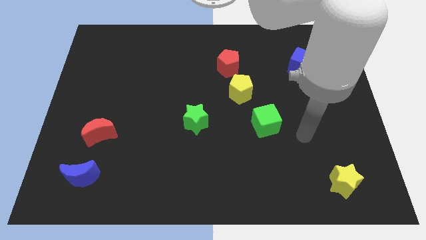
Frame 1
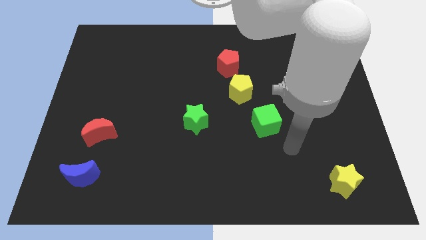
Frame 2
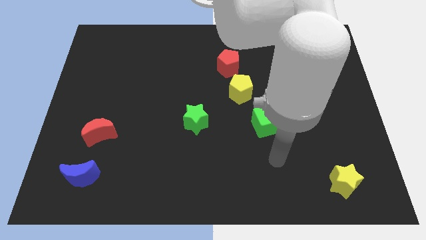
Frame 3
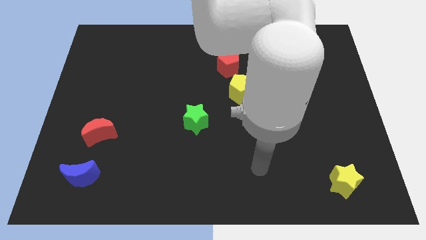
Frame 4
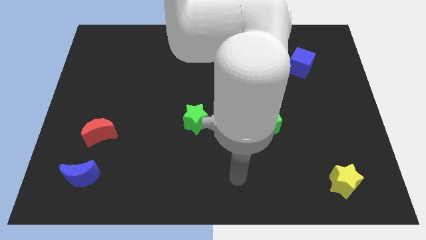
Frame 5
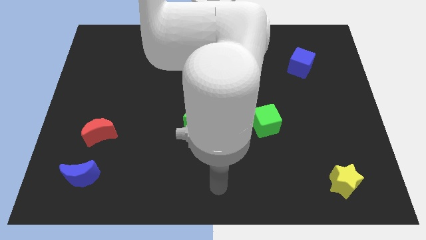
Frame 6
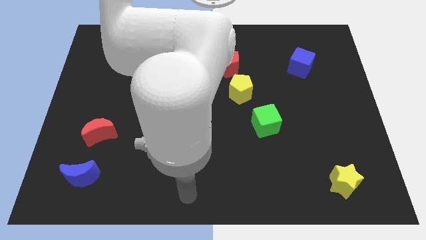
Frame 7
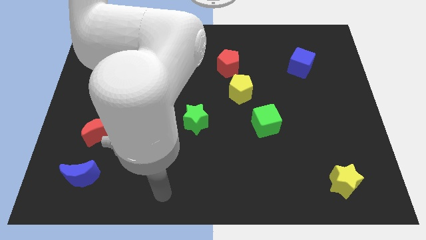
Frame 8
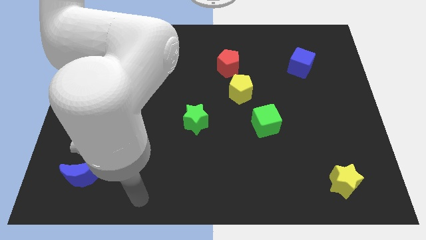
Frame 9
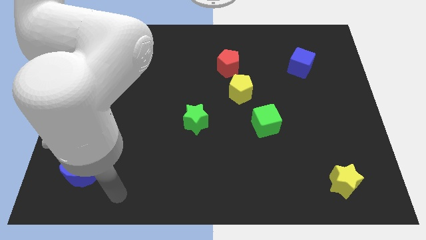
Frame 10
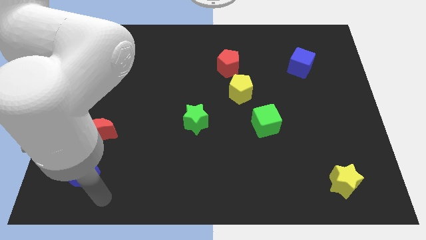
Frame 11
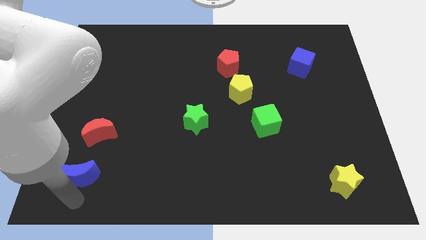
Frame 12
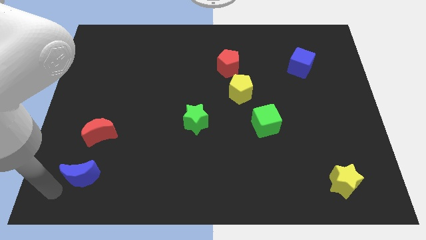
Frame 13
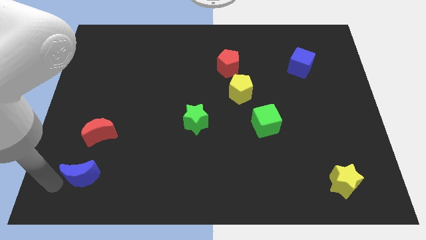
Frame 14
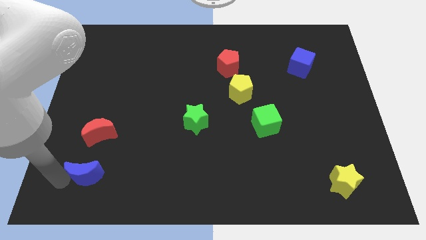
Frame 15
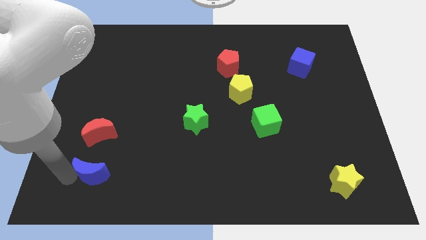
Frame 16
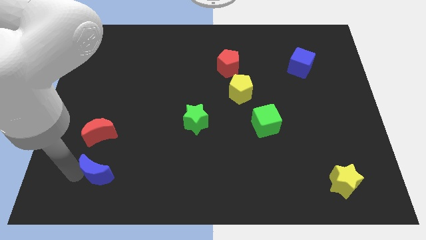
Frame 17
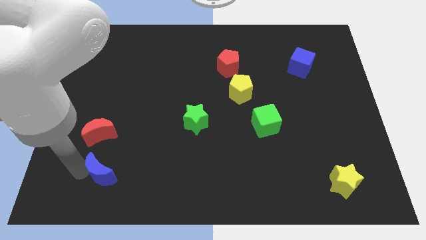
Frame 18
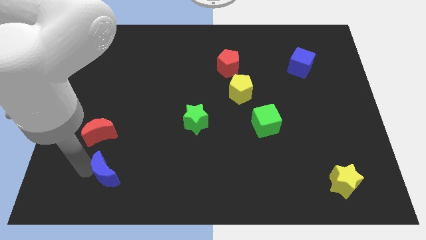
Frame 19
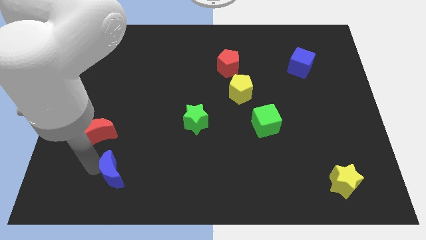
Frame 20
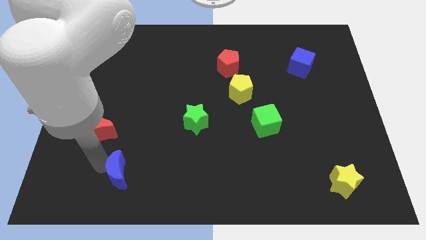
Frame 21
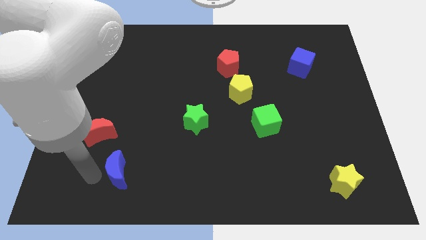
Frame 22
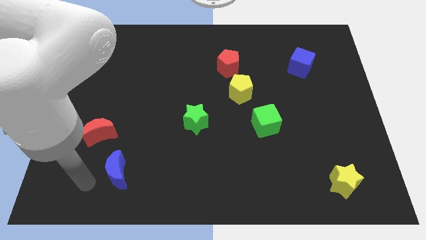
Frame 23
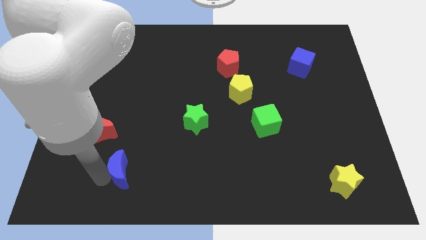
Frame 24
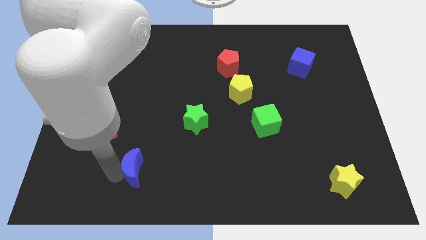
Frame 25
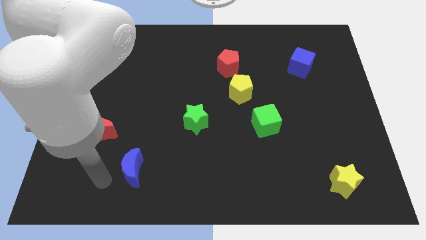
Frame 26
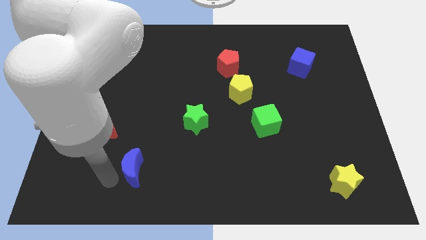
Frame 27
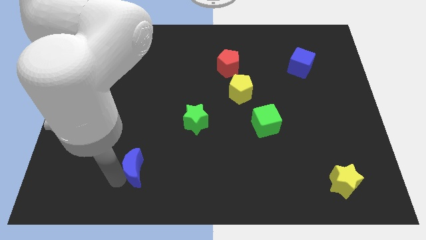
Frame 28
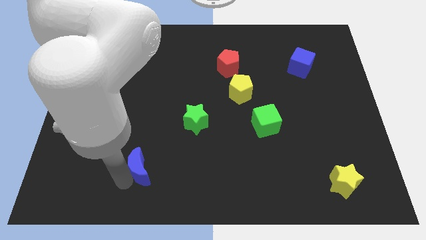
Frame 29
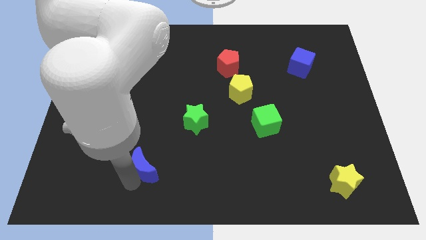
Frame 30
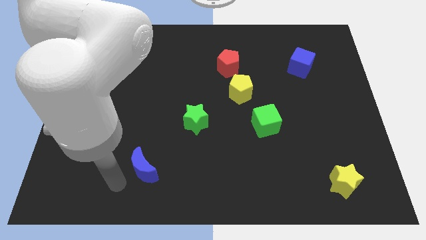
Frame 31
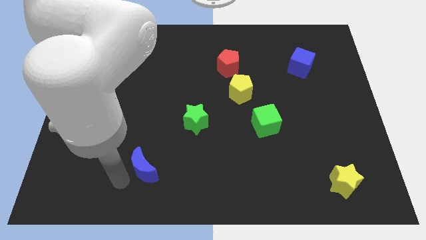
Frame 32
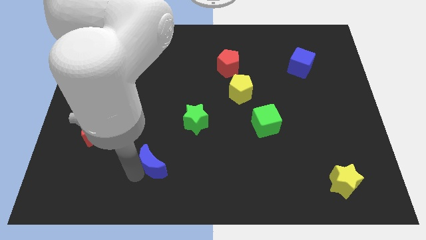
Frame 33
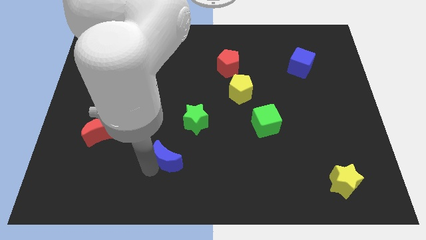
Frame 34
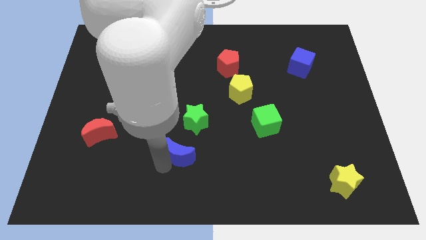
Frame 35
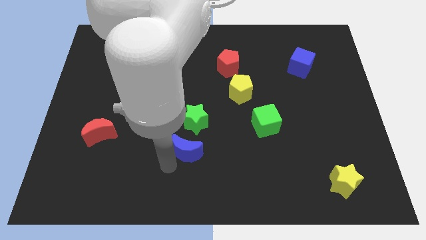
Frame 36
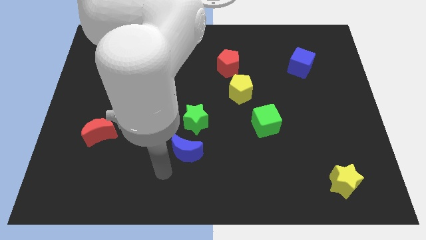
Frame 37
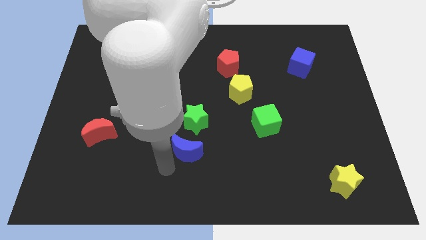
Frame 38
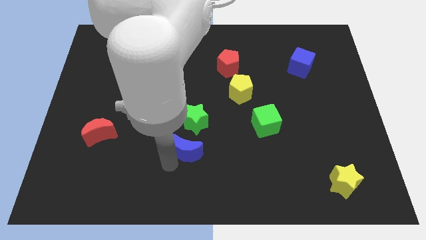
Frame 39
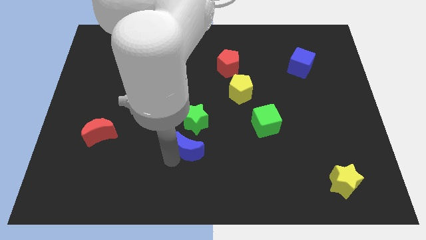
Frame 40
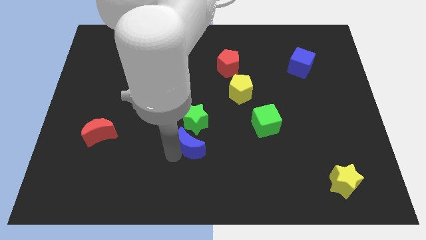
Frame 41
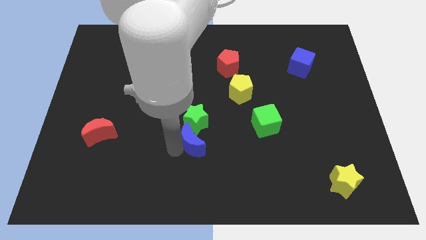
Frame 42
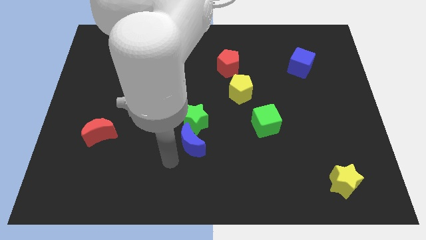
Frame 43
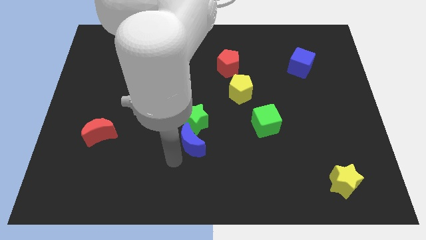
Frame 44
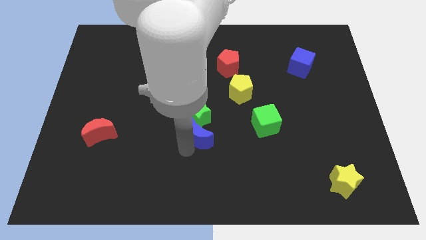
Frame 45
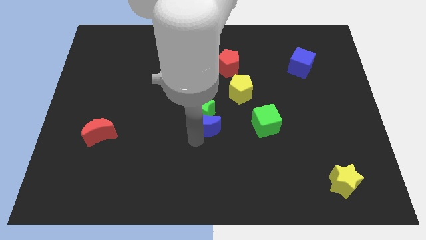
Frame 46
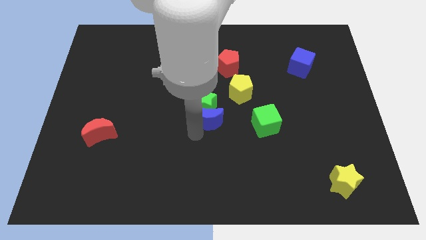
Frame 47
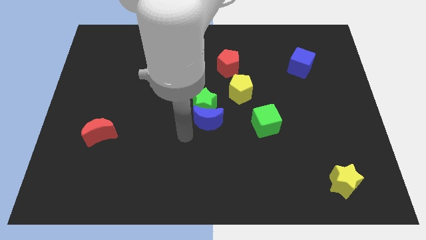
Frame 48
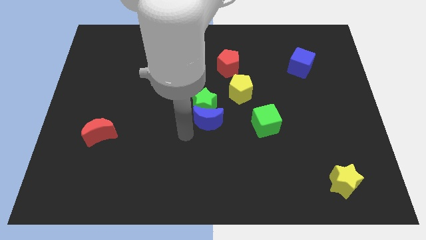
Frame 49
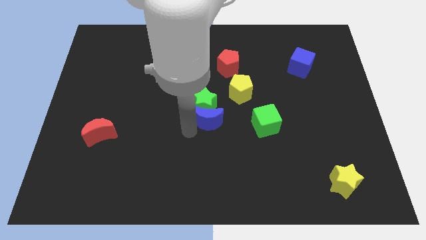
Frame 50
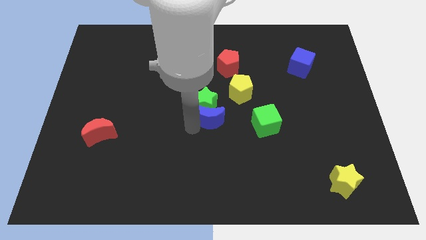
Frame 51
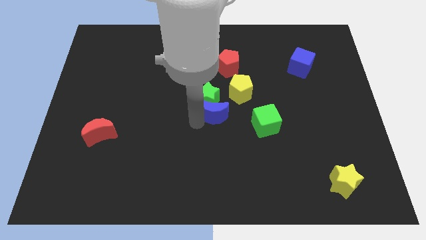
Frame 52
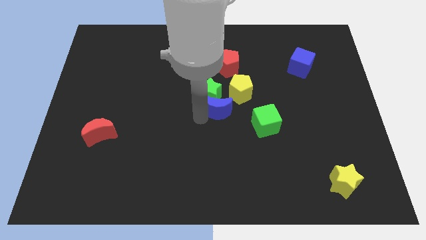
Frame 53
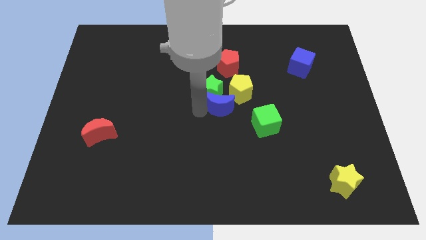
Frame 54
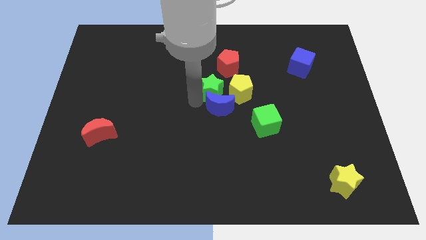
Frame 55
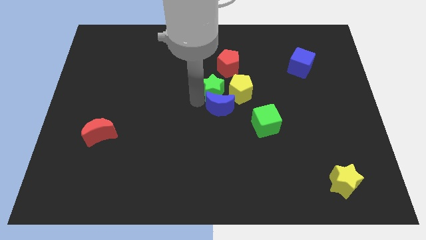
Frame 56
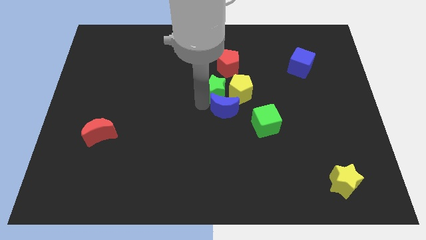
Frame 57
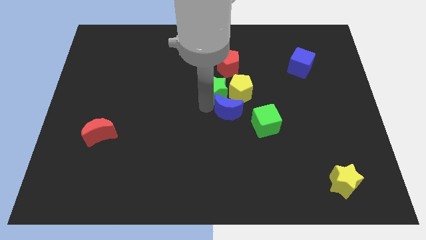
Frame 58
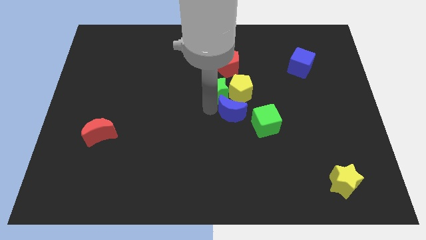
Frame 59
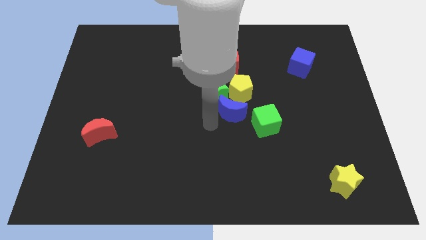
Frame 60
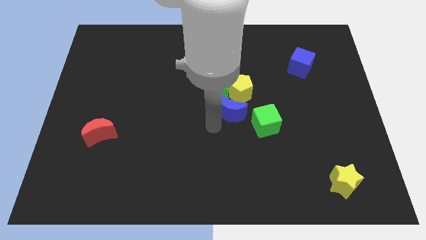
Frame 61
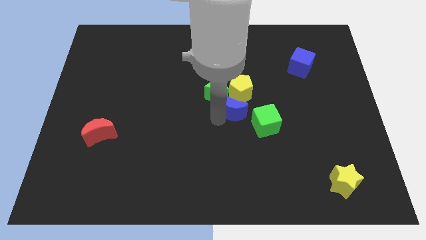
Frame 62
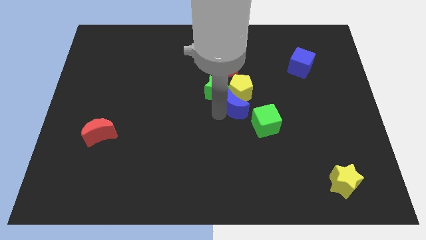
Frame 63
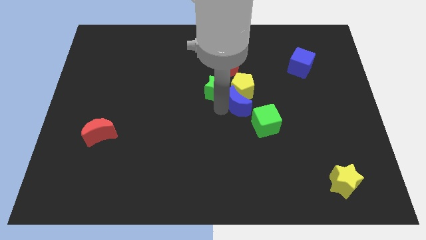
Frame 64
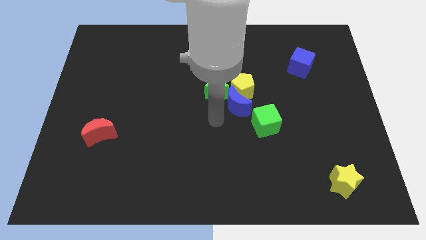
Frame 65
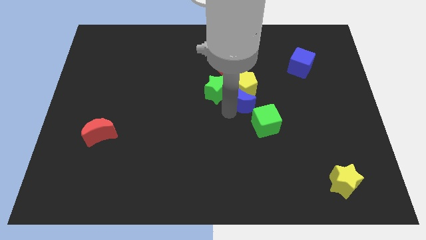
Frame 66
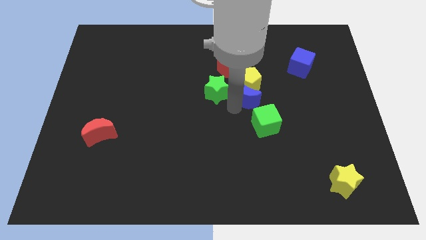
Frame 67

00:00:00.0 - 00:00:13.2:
put the blue moon to the top side of the green cube

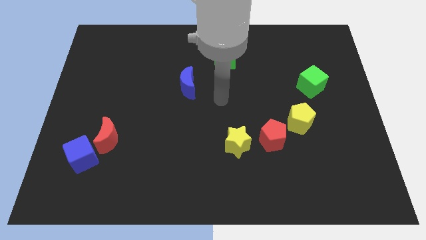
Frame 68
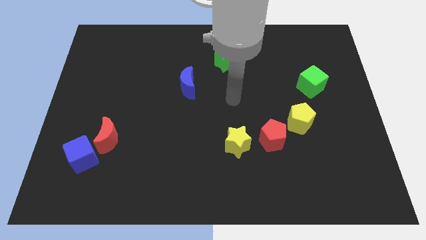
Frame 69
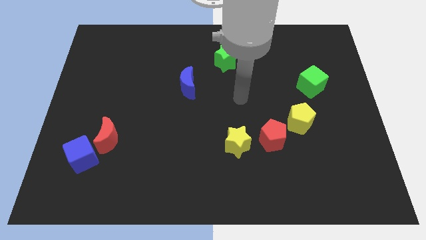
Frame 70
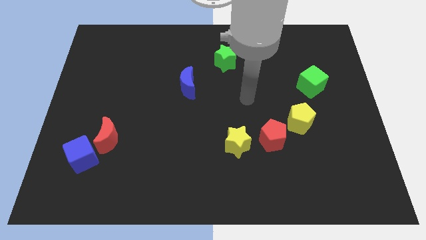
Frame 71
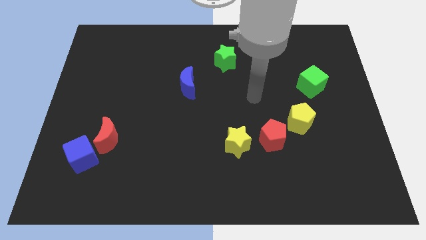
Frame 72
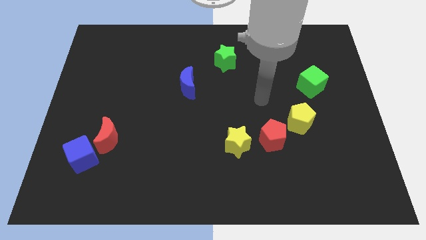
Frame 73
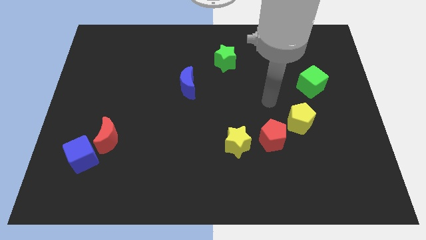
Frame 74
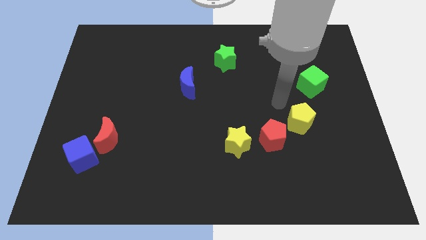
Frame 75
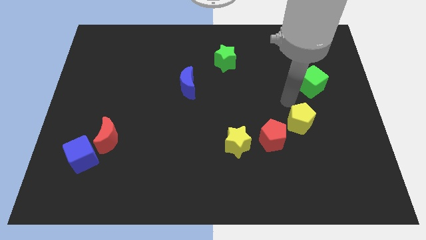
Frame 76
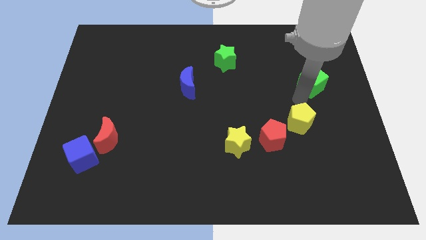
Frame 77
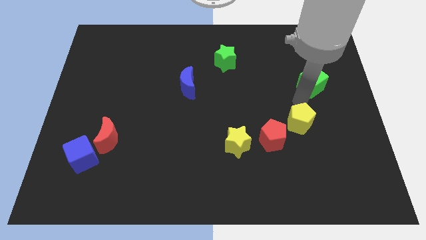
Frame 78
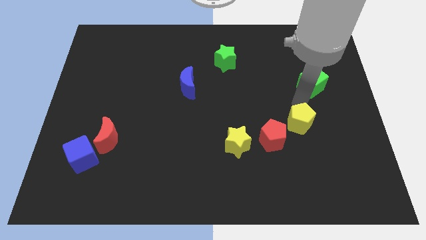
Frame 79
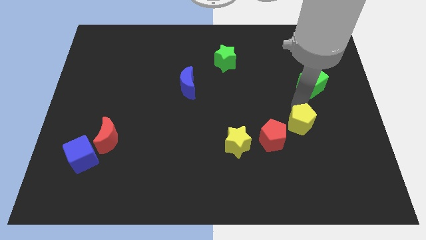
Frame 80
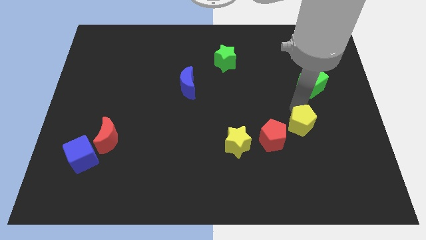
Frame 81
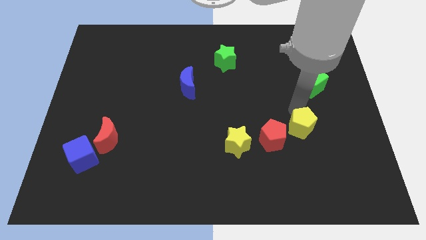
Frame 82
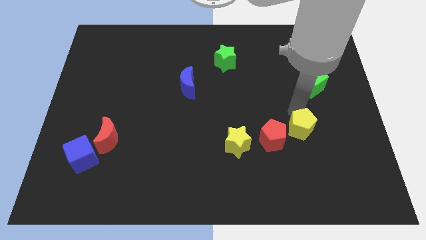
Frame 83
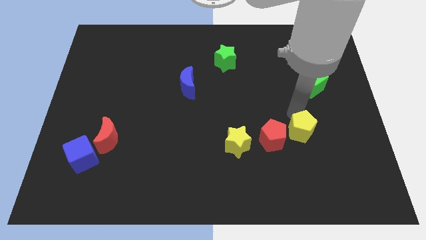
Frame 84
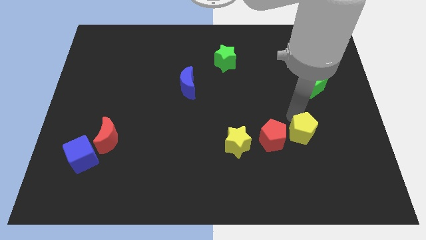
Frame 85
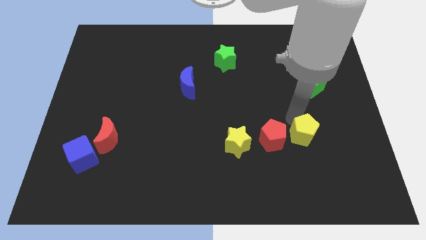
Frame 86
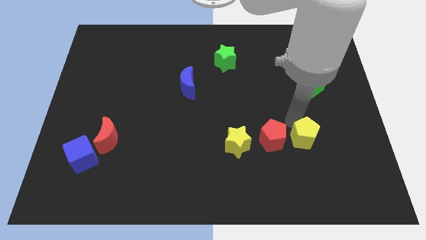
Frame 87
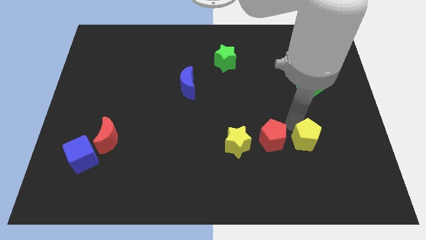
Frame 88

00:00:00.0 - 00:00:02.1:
push the yellow pentagon to the bottom right of the red pentagon
